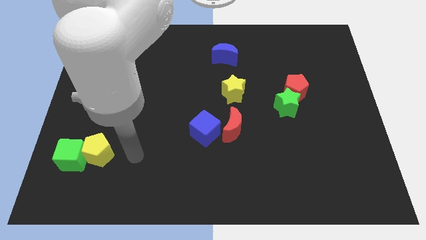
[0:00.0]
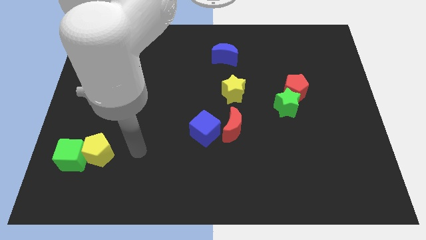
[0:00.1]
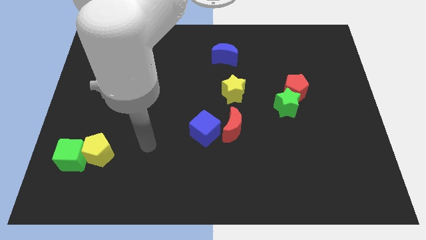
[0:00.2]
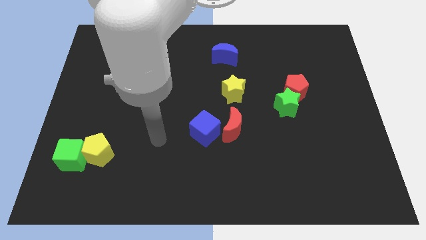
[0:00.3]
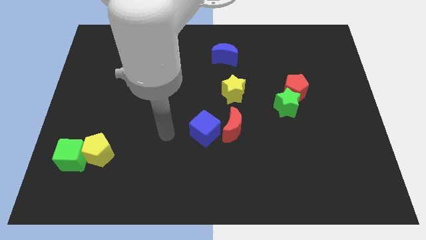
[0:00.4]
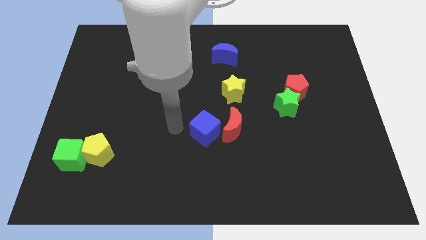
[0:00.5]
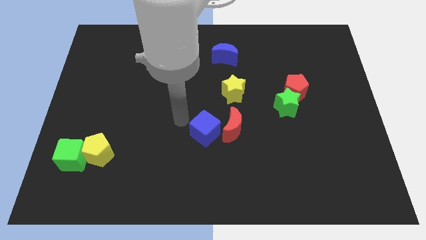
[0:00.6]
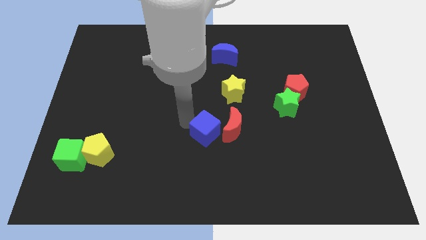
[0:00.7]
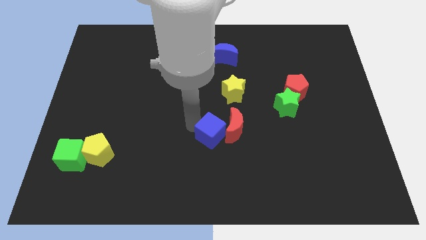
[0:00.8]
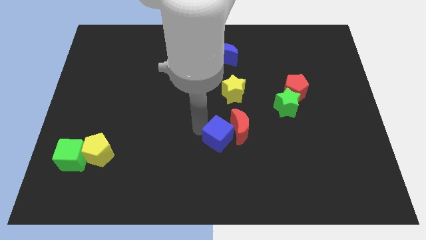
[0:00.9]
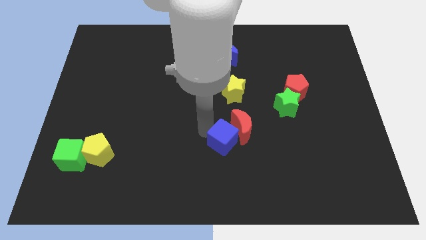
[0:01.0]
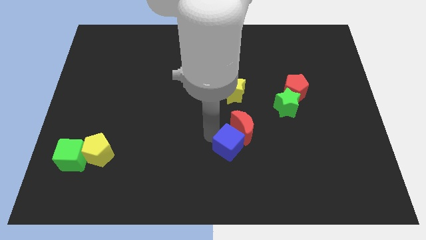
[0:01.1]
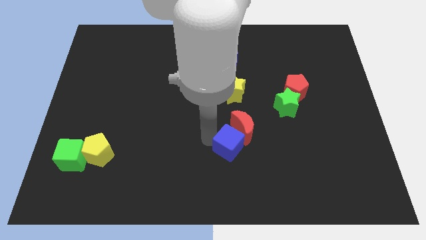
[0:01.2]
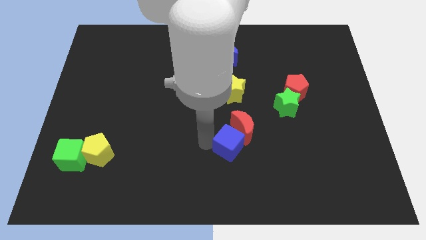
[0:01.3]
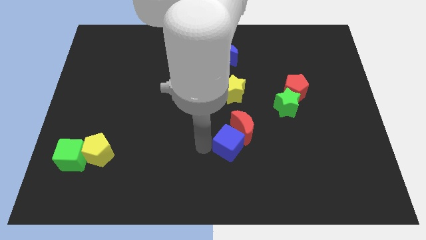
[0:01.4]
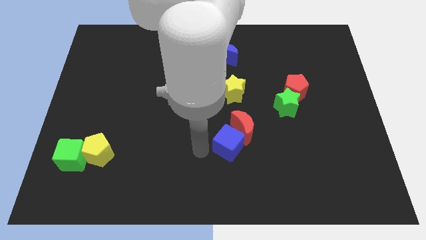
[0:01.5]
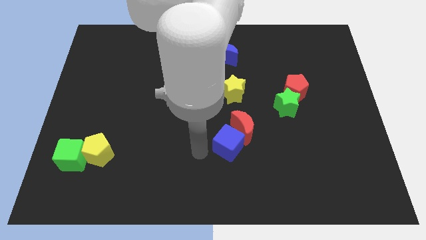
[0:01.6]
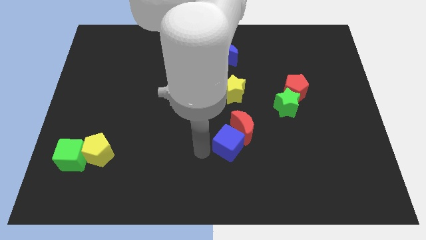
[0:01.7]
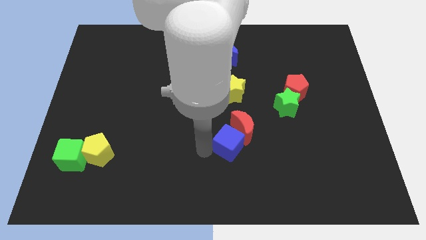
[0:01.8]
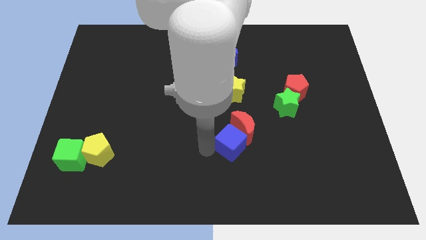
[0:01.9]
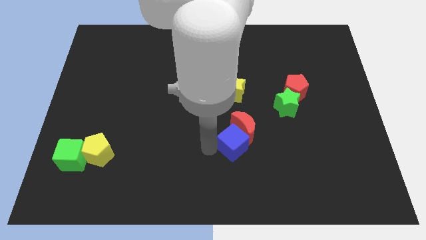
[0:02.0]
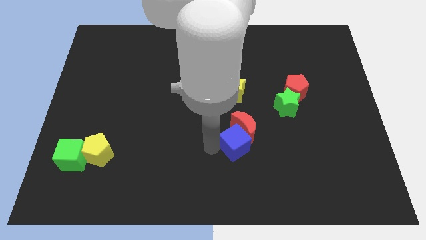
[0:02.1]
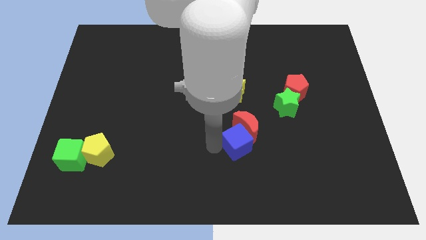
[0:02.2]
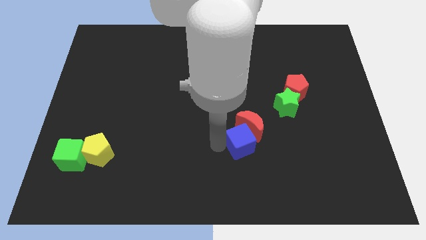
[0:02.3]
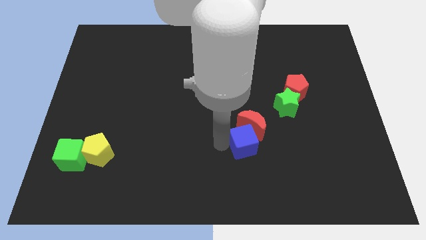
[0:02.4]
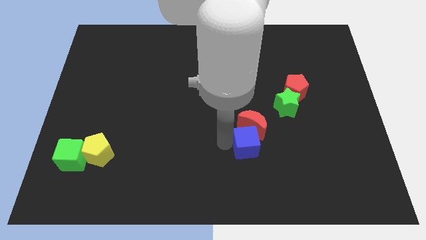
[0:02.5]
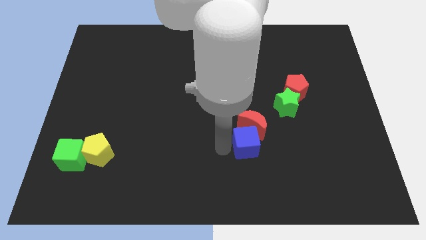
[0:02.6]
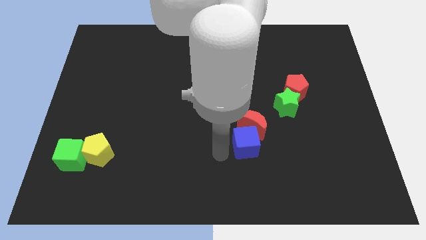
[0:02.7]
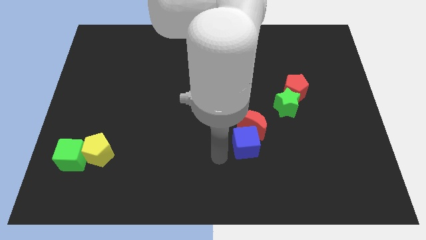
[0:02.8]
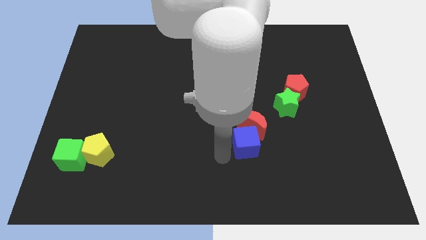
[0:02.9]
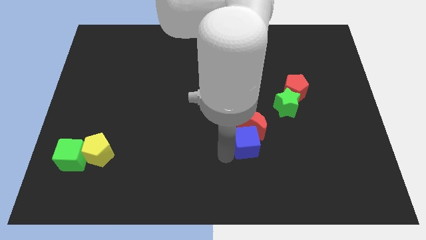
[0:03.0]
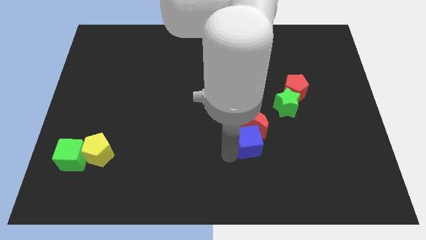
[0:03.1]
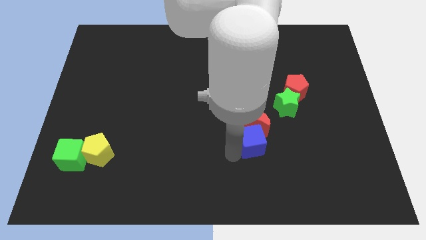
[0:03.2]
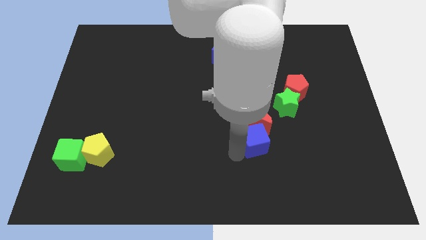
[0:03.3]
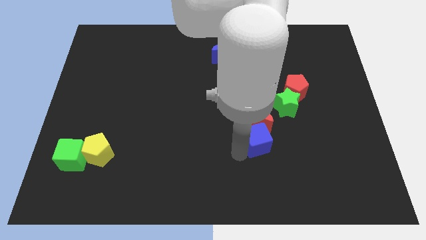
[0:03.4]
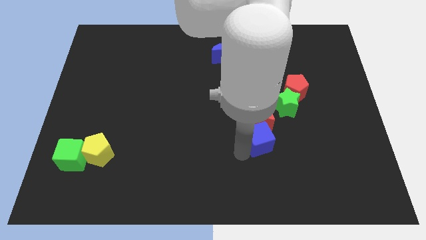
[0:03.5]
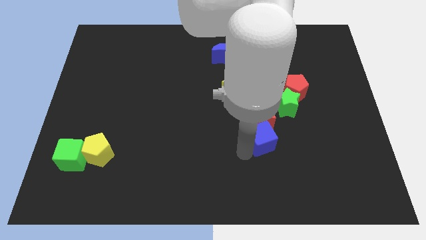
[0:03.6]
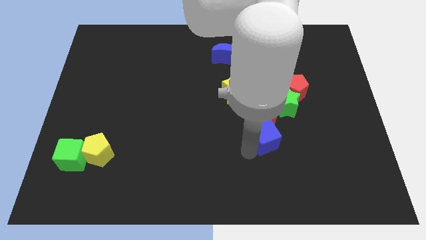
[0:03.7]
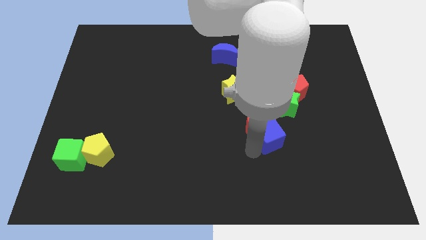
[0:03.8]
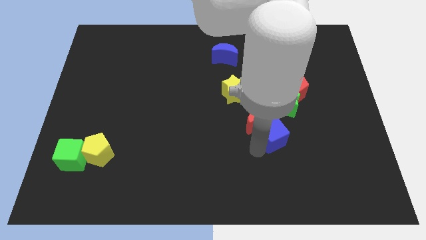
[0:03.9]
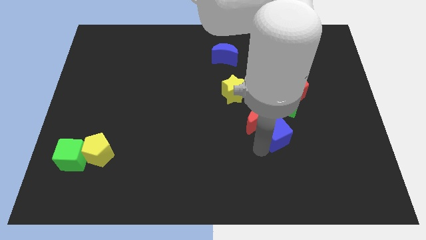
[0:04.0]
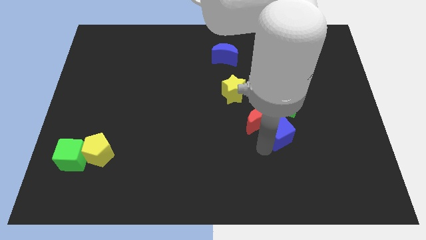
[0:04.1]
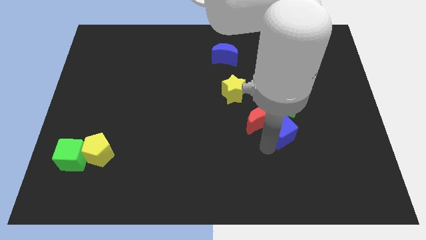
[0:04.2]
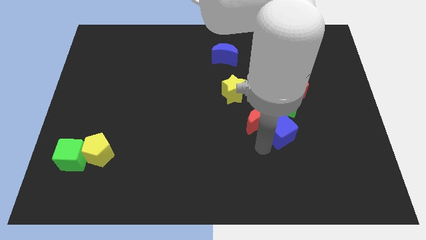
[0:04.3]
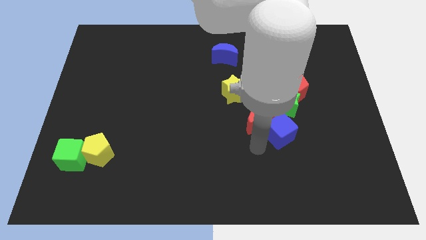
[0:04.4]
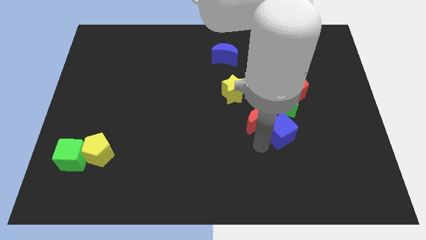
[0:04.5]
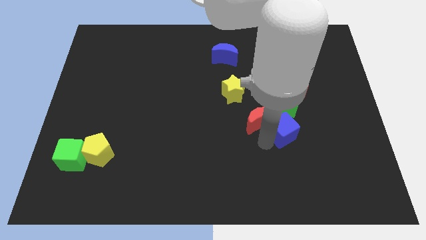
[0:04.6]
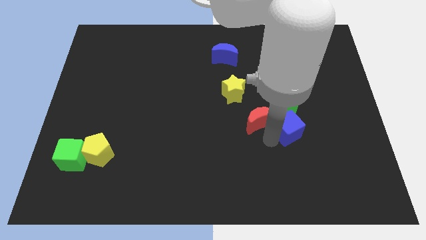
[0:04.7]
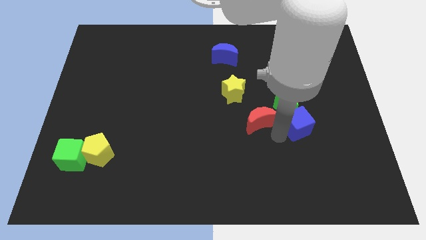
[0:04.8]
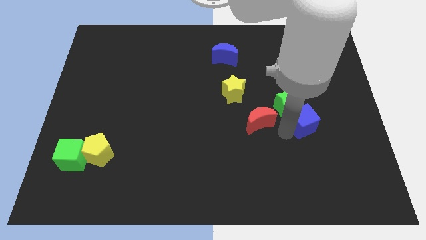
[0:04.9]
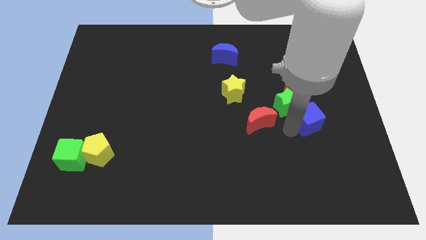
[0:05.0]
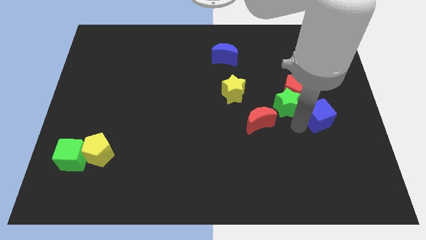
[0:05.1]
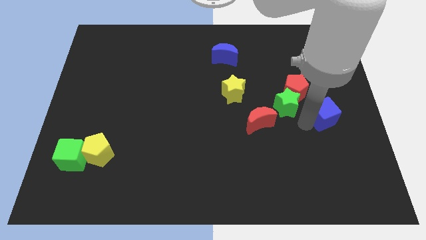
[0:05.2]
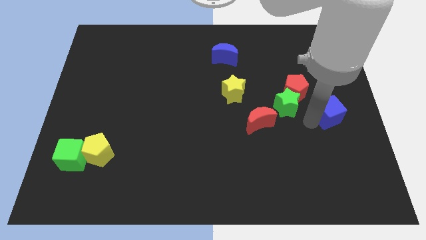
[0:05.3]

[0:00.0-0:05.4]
move the blue cube to the right side
